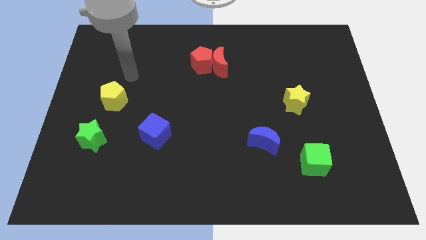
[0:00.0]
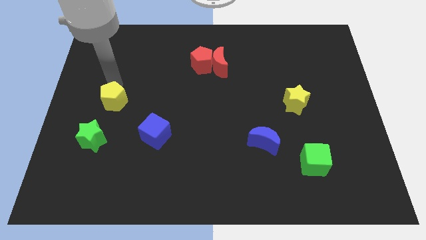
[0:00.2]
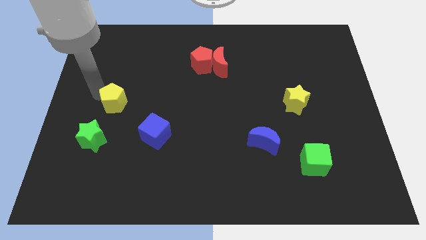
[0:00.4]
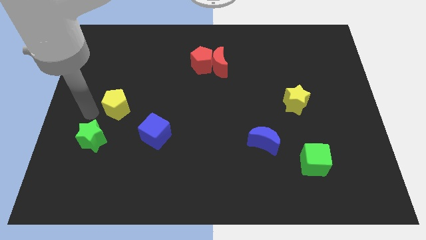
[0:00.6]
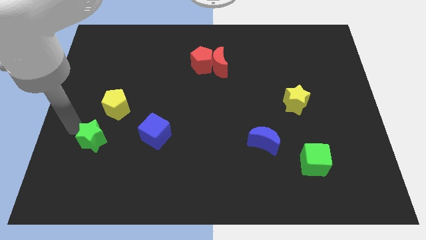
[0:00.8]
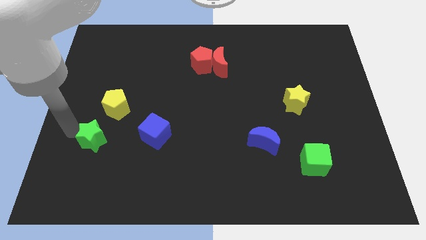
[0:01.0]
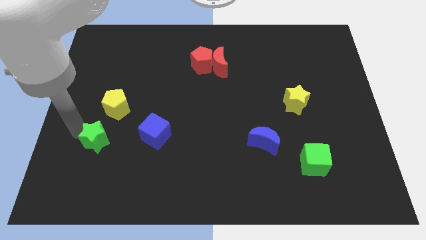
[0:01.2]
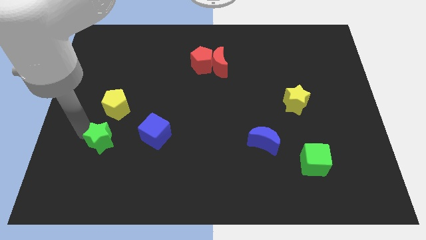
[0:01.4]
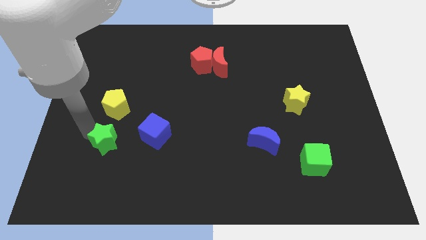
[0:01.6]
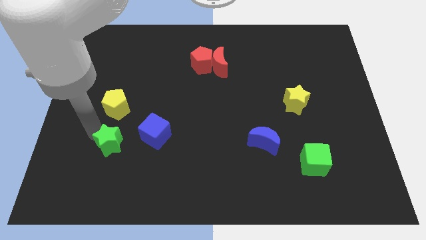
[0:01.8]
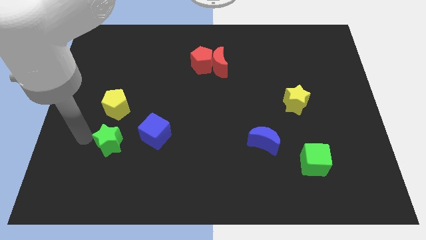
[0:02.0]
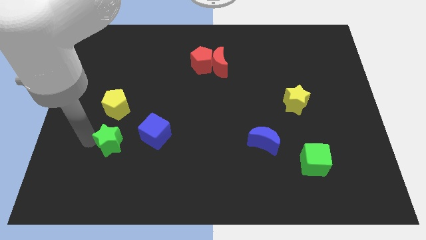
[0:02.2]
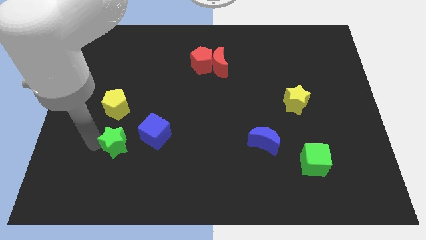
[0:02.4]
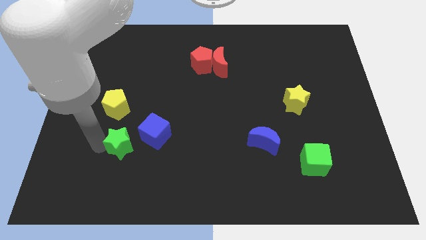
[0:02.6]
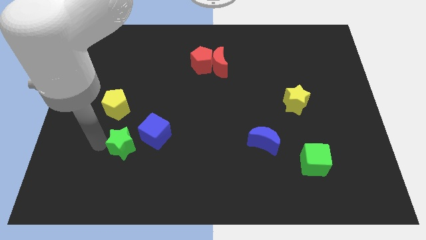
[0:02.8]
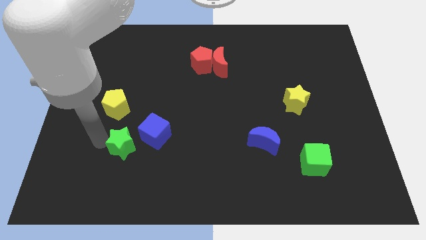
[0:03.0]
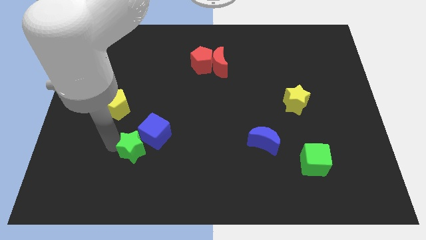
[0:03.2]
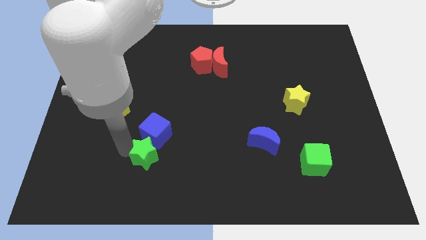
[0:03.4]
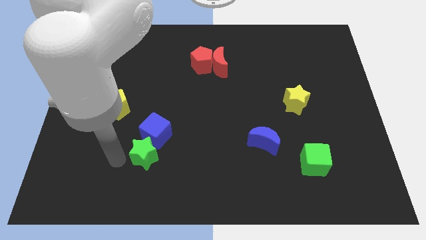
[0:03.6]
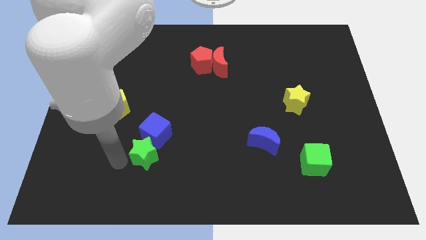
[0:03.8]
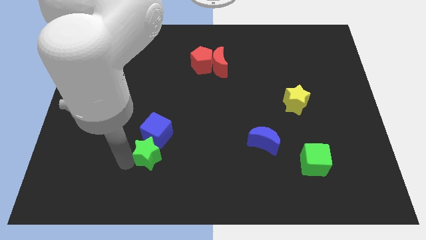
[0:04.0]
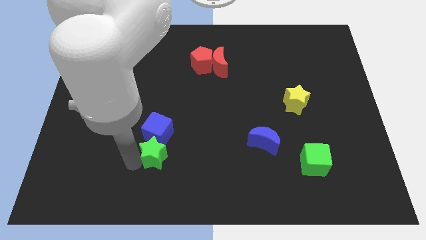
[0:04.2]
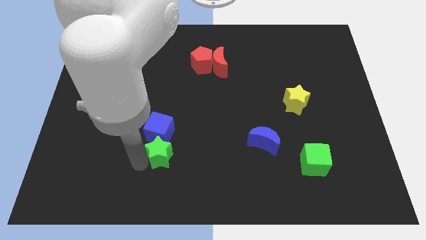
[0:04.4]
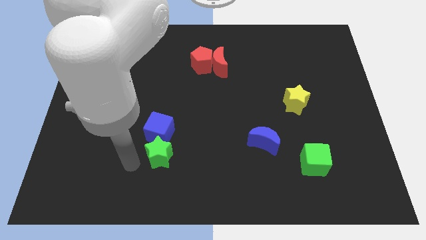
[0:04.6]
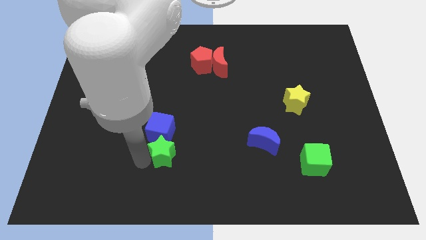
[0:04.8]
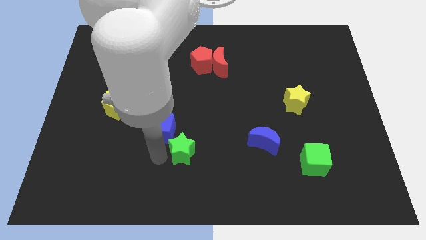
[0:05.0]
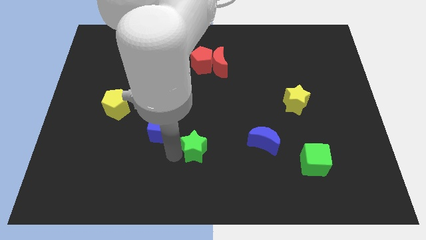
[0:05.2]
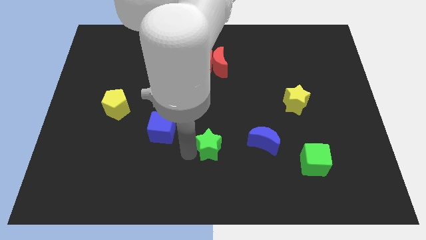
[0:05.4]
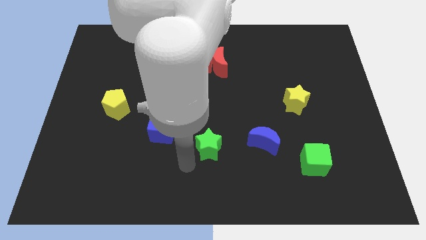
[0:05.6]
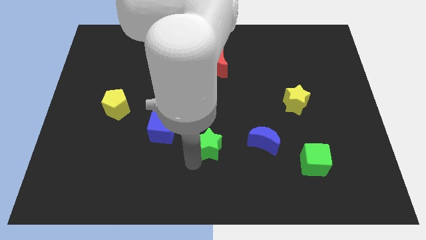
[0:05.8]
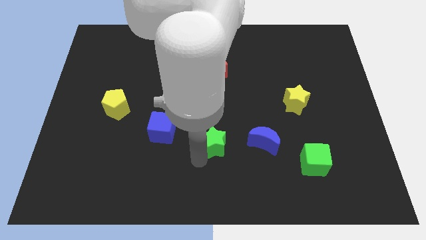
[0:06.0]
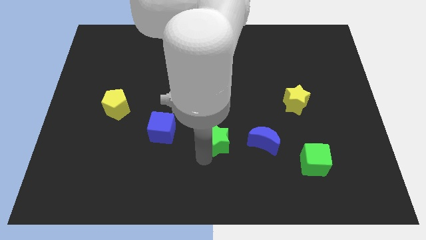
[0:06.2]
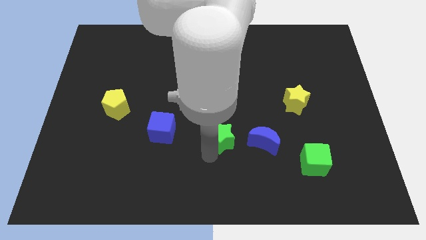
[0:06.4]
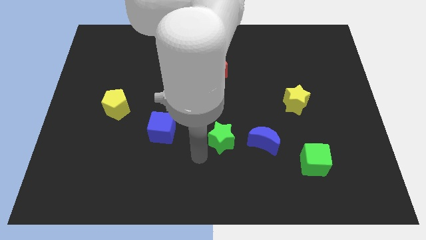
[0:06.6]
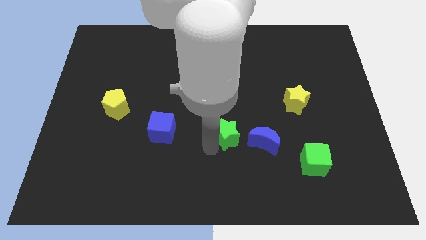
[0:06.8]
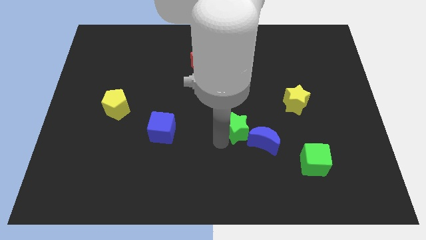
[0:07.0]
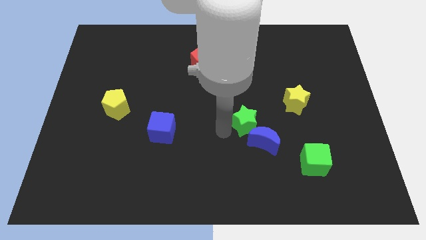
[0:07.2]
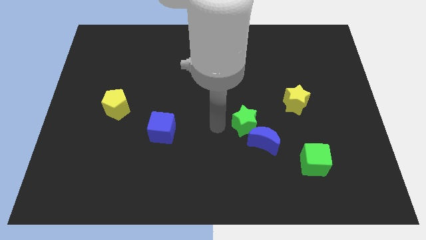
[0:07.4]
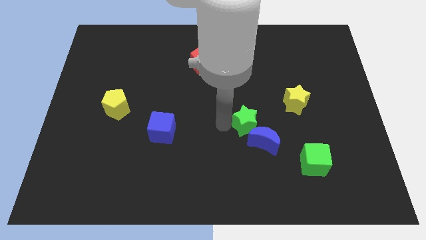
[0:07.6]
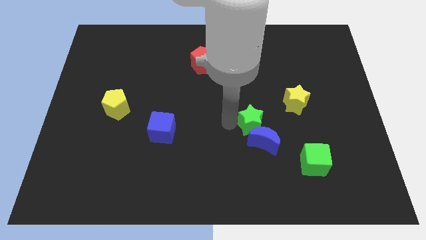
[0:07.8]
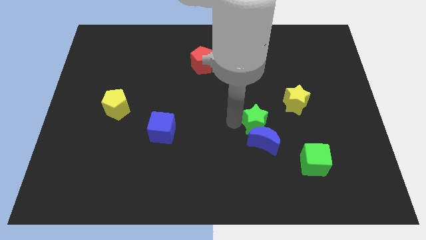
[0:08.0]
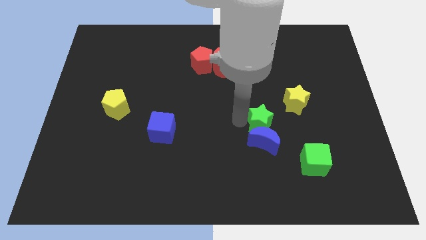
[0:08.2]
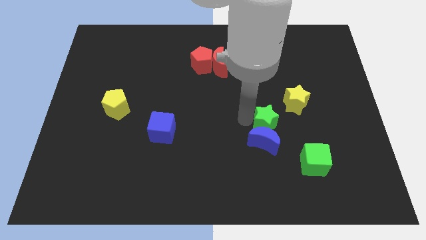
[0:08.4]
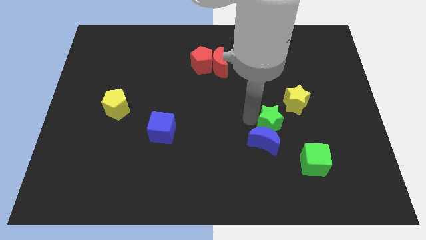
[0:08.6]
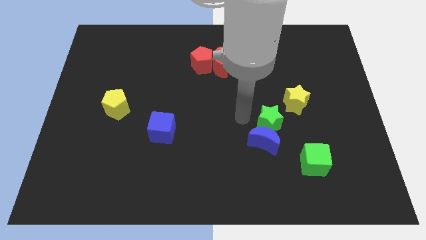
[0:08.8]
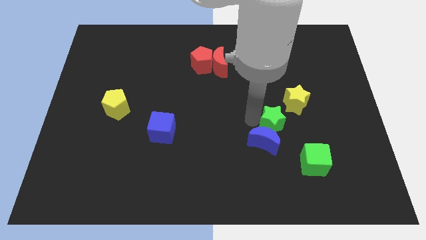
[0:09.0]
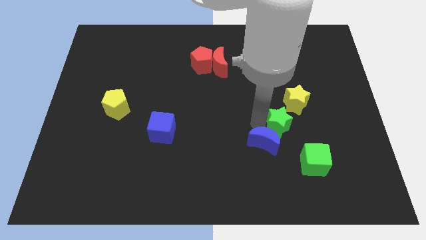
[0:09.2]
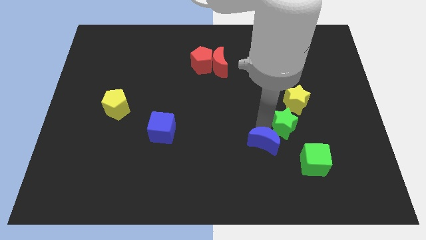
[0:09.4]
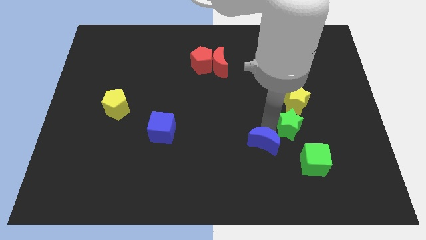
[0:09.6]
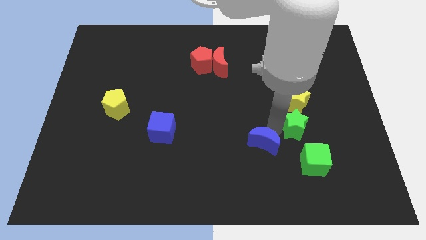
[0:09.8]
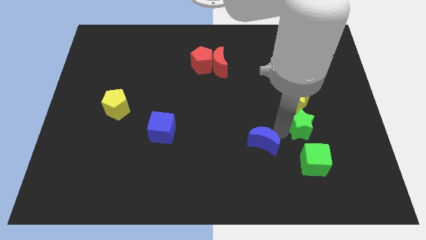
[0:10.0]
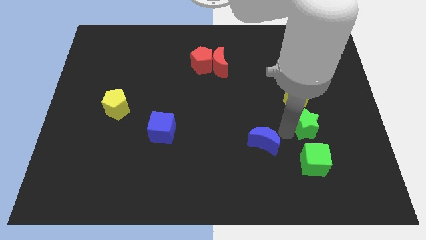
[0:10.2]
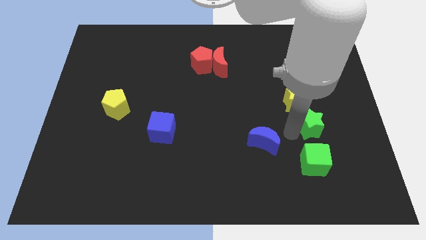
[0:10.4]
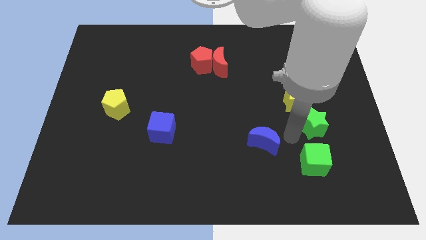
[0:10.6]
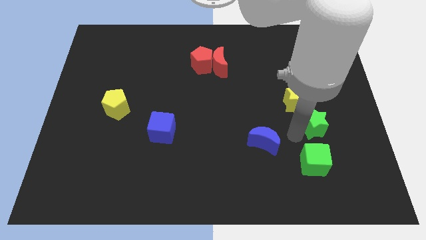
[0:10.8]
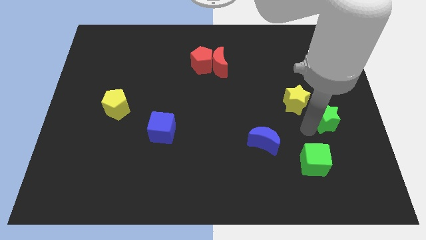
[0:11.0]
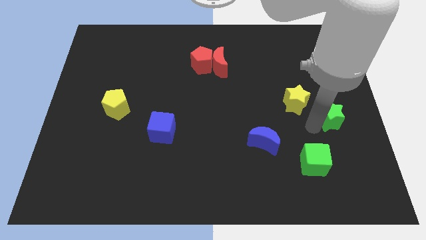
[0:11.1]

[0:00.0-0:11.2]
put the green star to the center right
